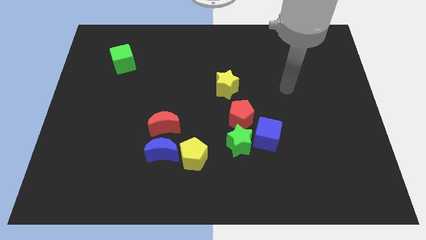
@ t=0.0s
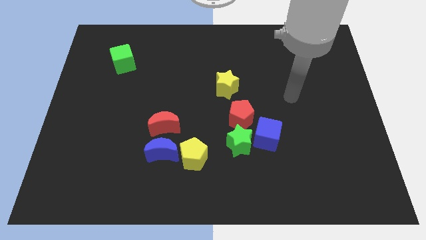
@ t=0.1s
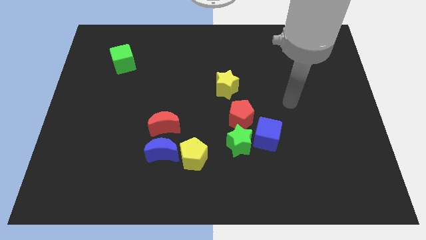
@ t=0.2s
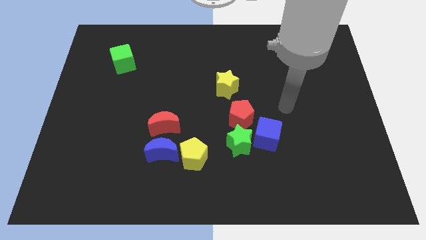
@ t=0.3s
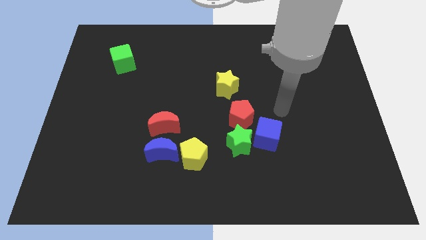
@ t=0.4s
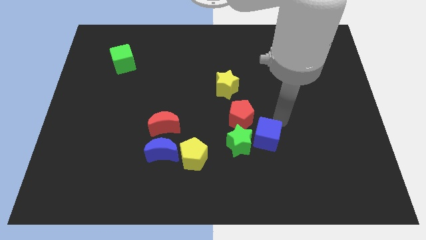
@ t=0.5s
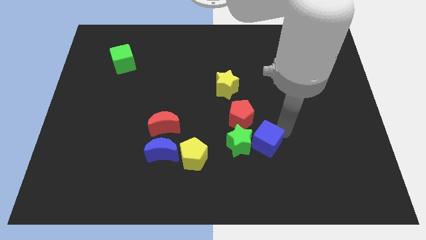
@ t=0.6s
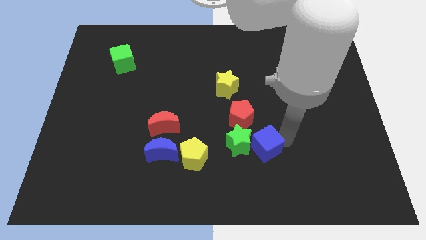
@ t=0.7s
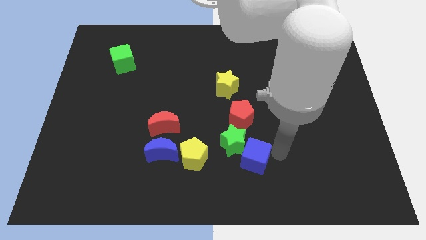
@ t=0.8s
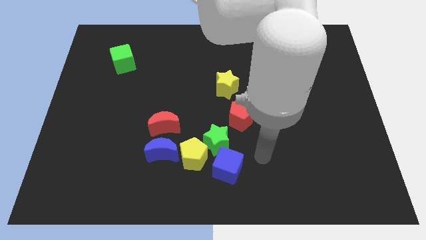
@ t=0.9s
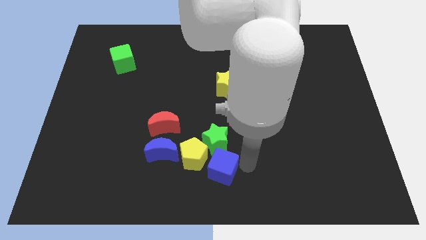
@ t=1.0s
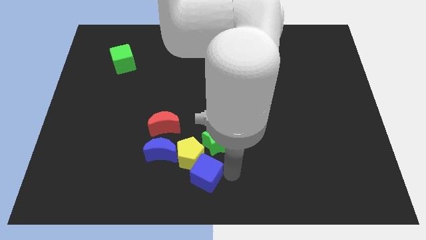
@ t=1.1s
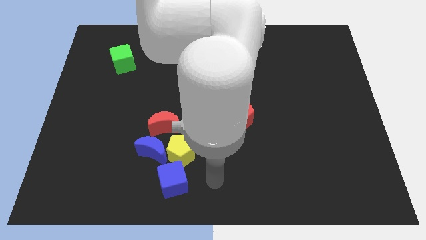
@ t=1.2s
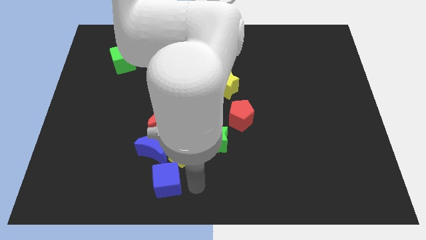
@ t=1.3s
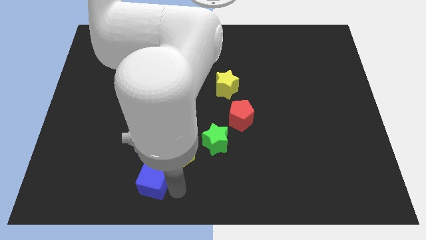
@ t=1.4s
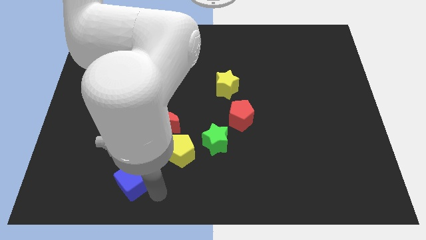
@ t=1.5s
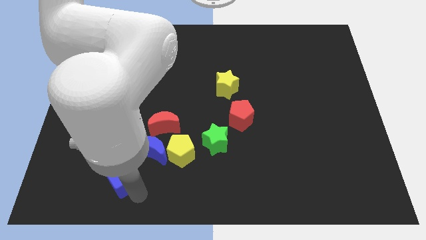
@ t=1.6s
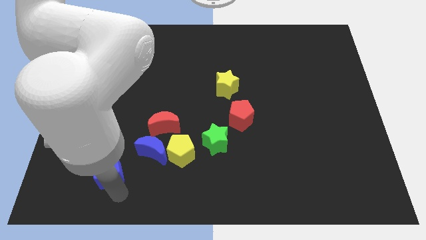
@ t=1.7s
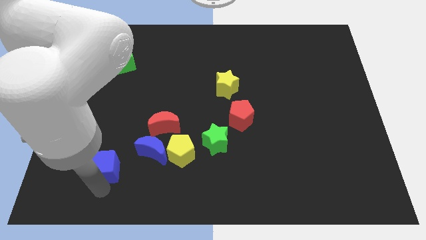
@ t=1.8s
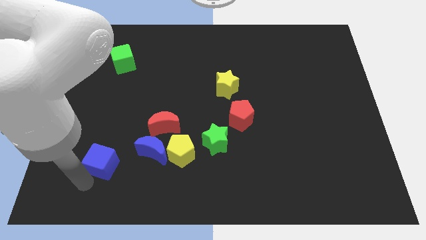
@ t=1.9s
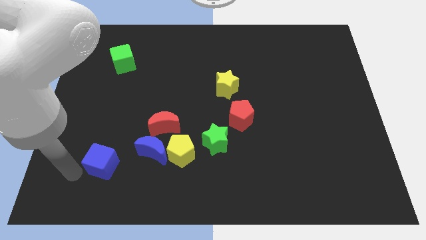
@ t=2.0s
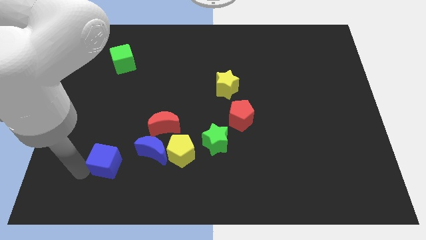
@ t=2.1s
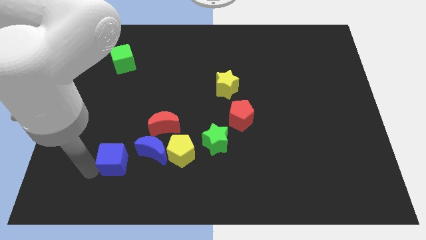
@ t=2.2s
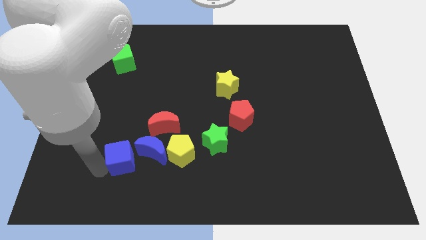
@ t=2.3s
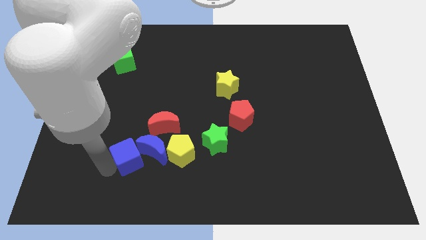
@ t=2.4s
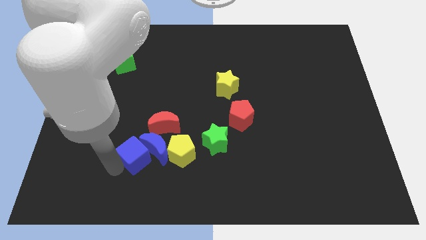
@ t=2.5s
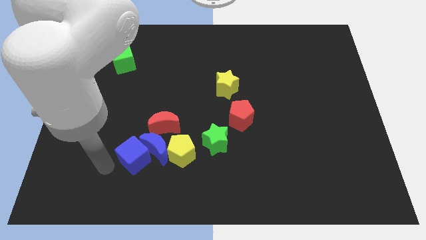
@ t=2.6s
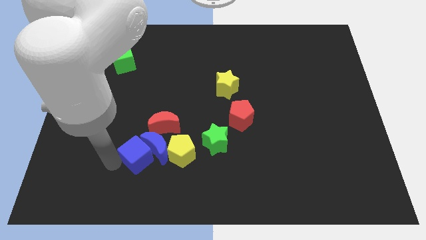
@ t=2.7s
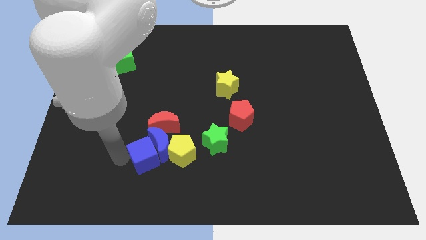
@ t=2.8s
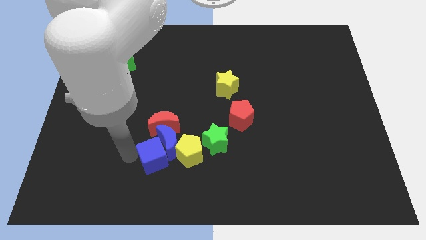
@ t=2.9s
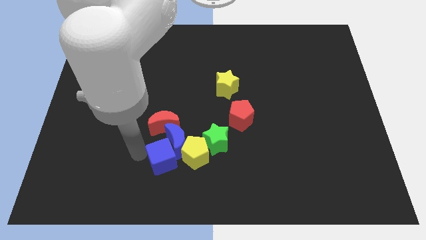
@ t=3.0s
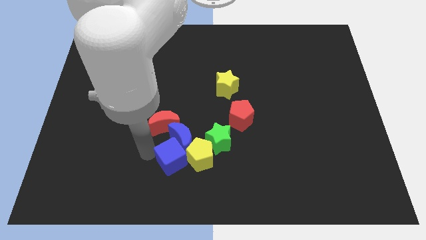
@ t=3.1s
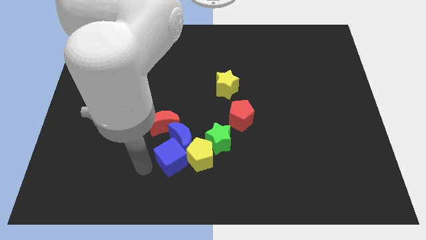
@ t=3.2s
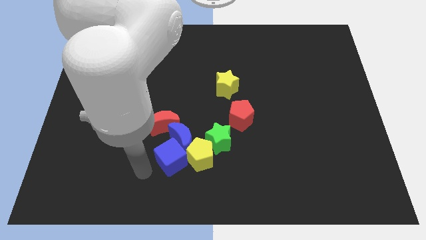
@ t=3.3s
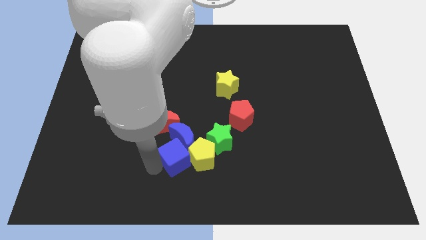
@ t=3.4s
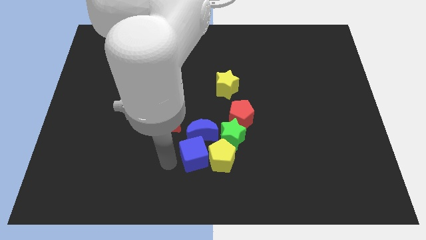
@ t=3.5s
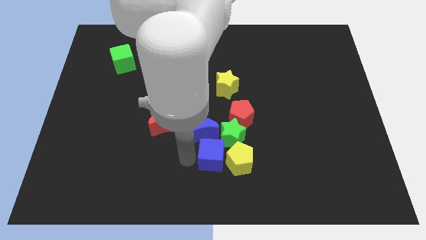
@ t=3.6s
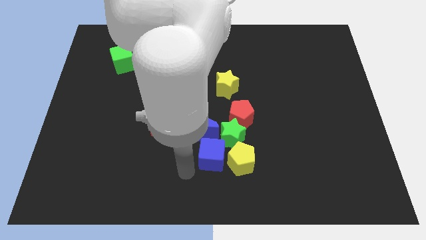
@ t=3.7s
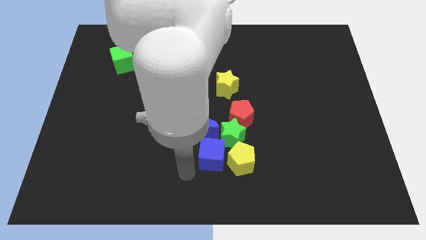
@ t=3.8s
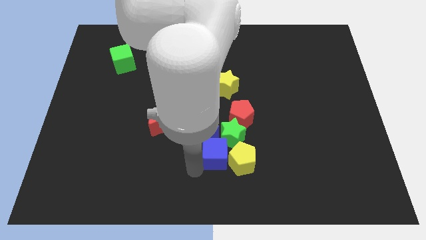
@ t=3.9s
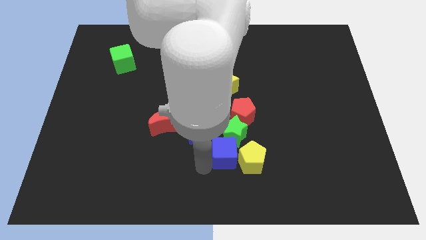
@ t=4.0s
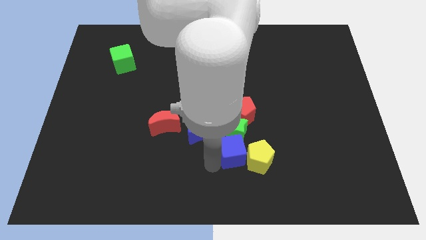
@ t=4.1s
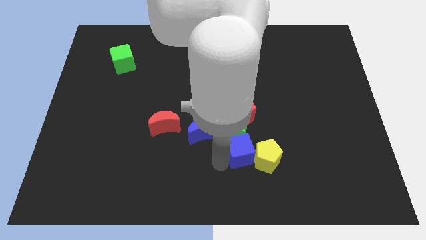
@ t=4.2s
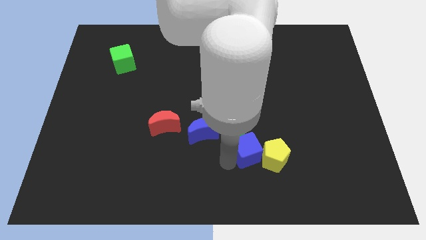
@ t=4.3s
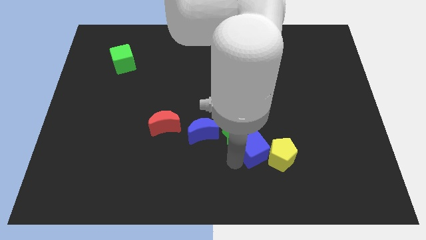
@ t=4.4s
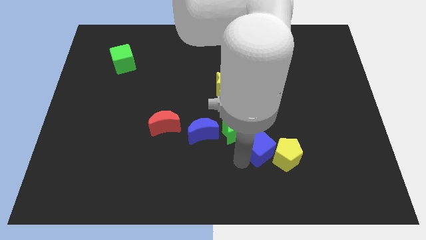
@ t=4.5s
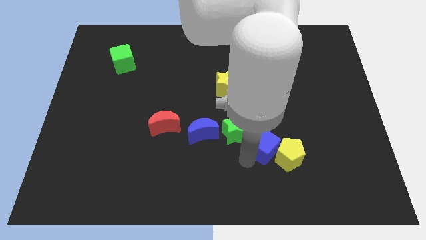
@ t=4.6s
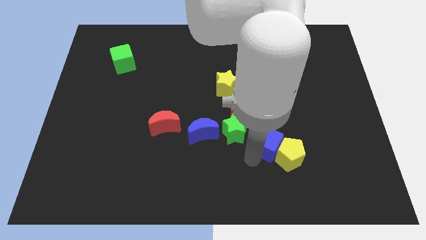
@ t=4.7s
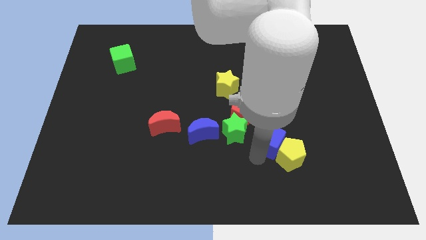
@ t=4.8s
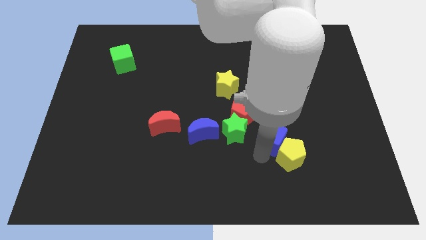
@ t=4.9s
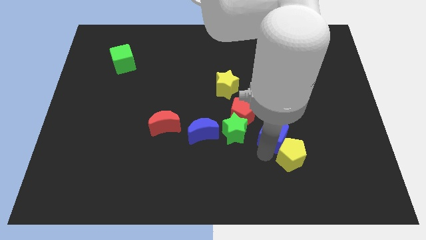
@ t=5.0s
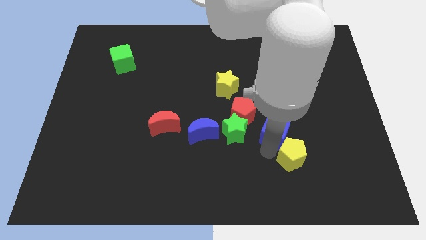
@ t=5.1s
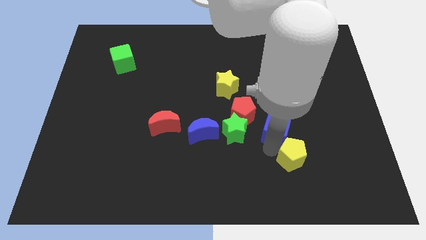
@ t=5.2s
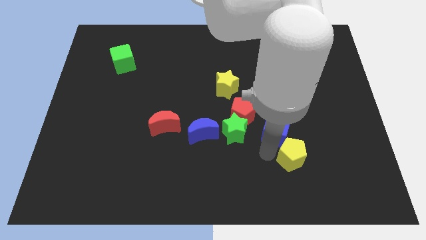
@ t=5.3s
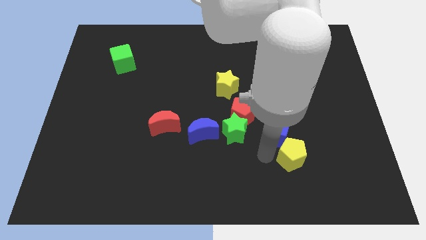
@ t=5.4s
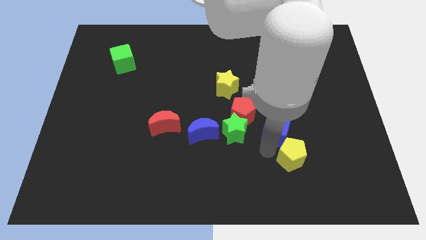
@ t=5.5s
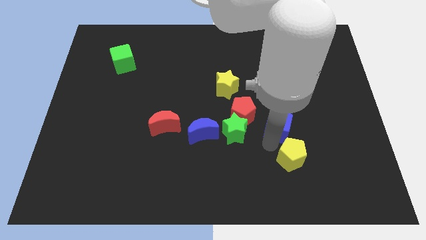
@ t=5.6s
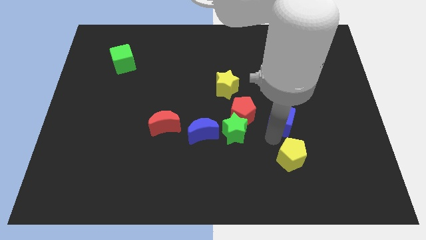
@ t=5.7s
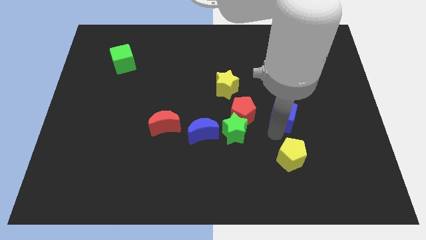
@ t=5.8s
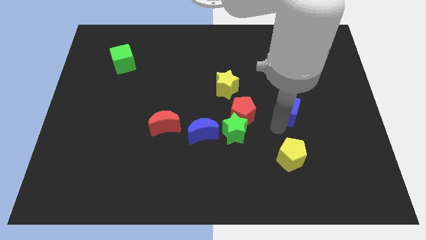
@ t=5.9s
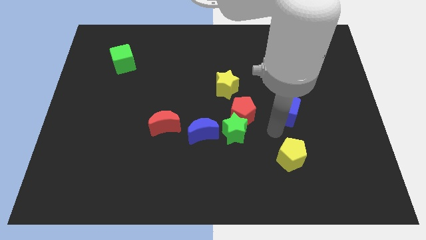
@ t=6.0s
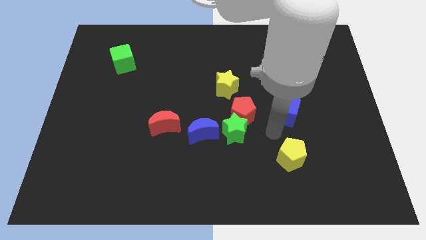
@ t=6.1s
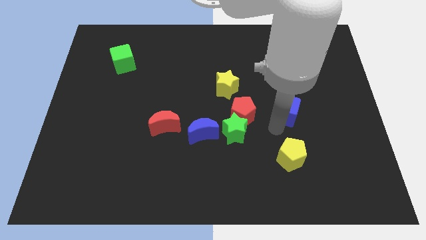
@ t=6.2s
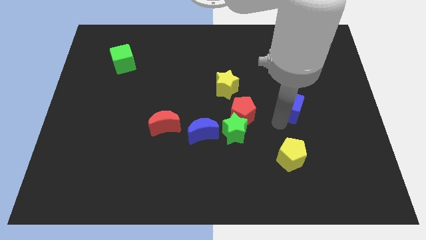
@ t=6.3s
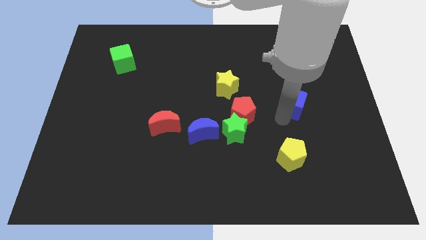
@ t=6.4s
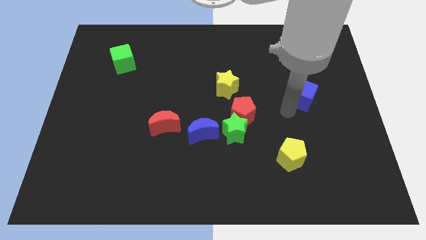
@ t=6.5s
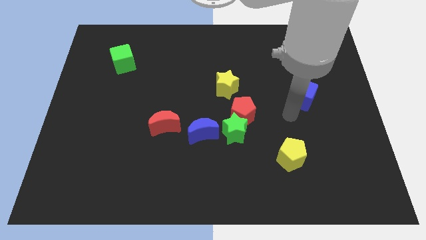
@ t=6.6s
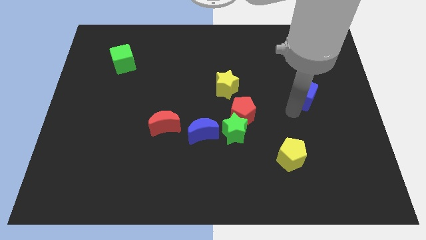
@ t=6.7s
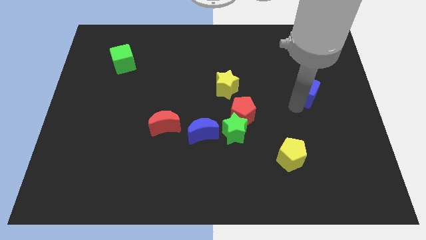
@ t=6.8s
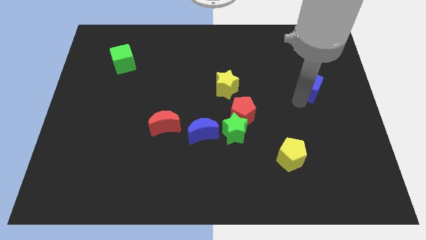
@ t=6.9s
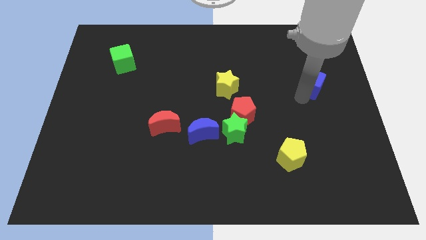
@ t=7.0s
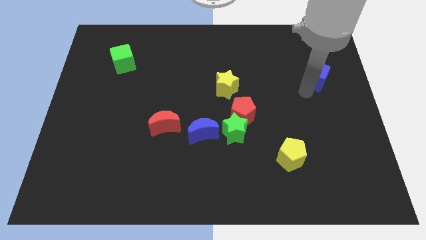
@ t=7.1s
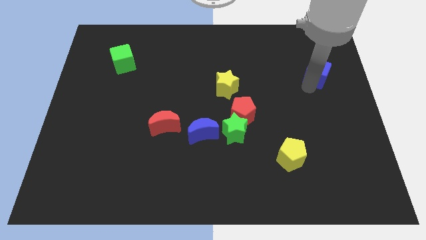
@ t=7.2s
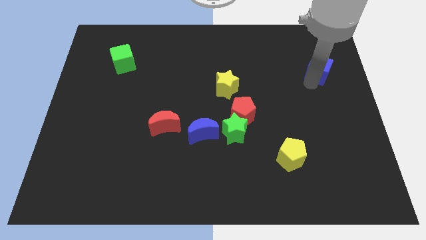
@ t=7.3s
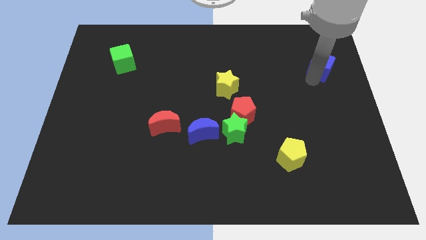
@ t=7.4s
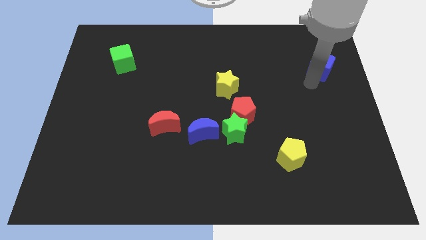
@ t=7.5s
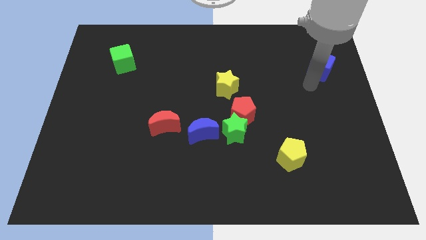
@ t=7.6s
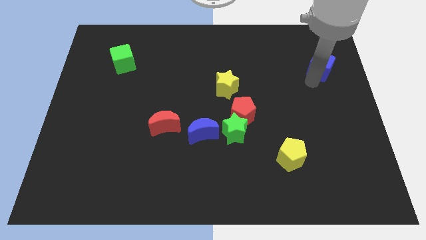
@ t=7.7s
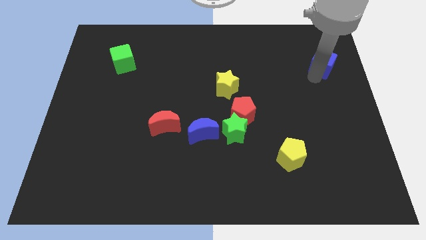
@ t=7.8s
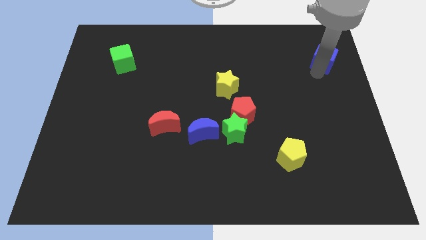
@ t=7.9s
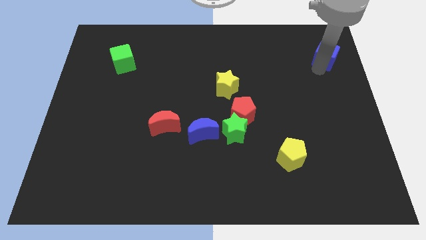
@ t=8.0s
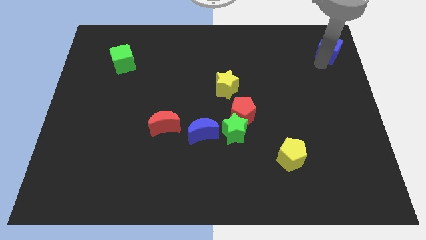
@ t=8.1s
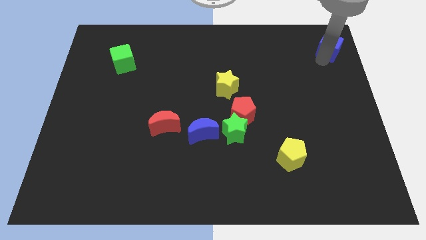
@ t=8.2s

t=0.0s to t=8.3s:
move the blue cube to the top right corner
